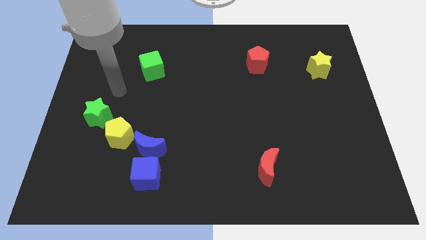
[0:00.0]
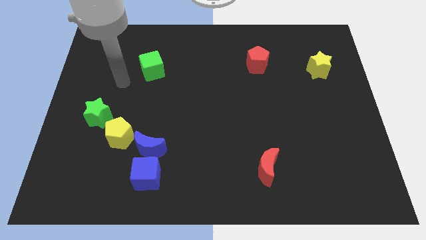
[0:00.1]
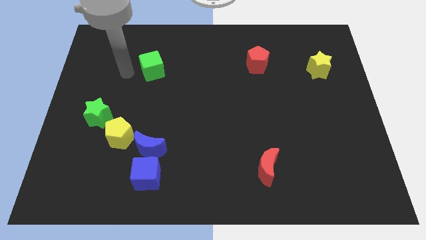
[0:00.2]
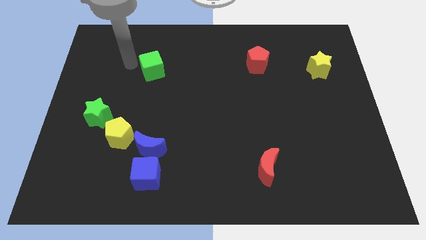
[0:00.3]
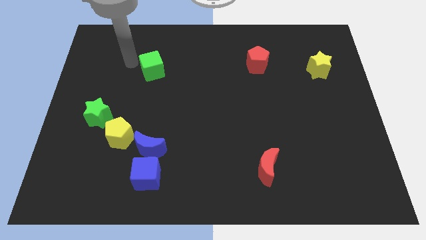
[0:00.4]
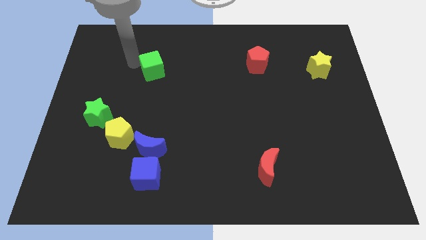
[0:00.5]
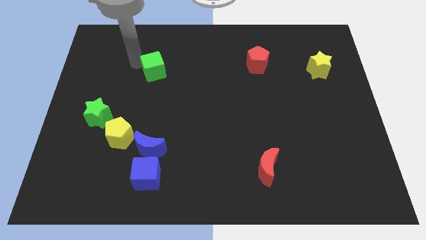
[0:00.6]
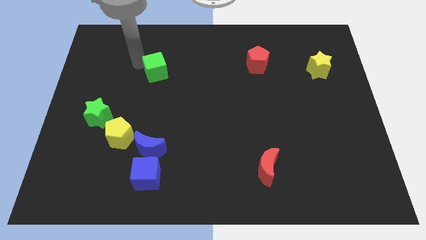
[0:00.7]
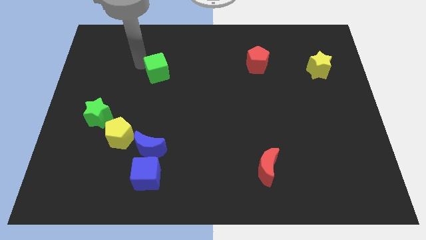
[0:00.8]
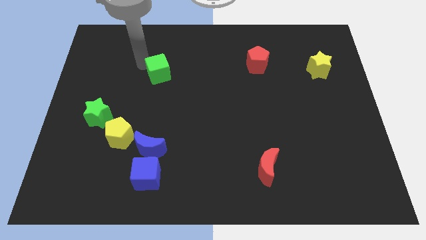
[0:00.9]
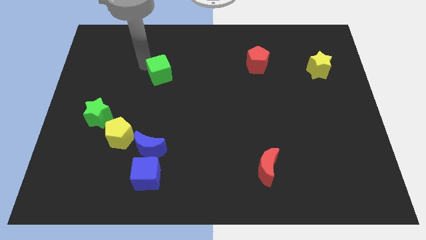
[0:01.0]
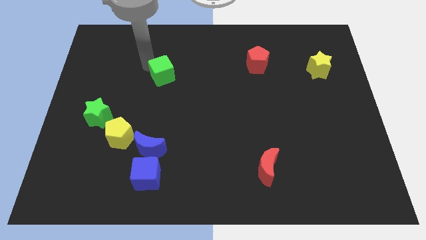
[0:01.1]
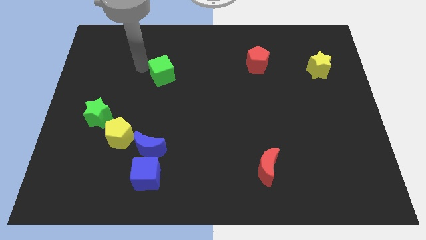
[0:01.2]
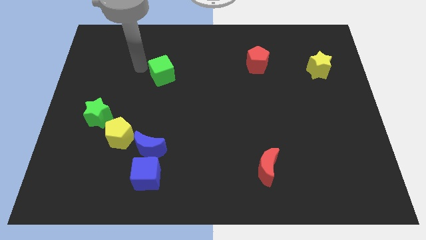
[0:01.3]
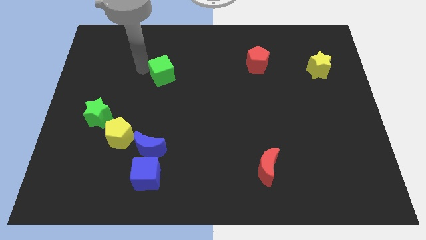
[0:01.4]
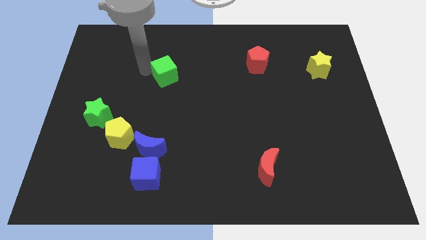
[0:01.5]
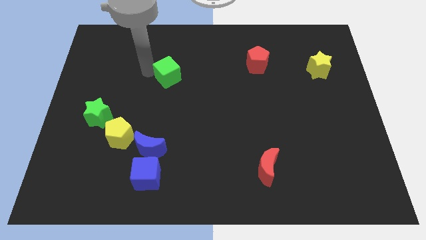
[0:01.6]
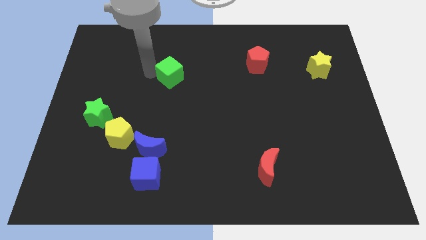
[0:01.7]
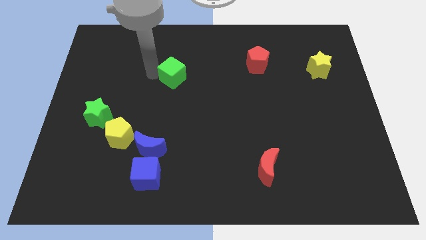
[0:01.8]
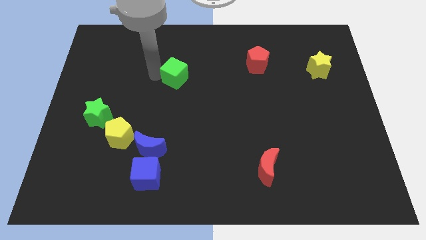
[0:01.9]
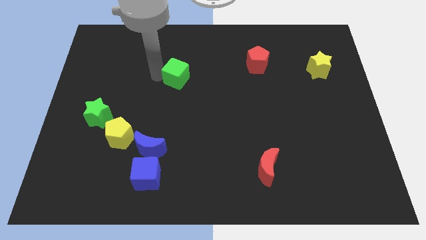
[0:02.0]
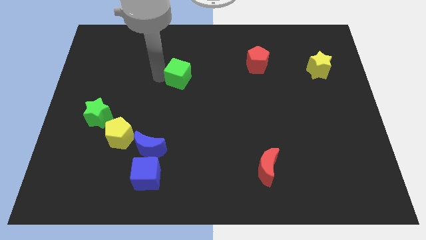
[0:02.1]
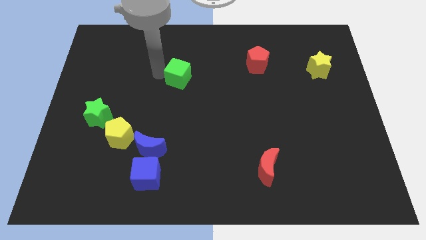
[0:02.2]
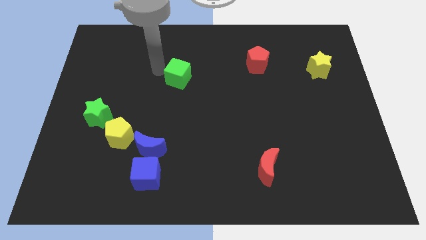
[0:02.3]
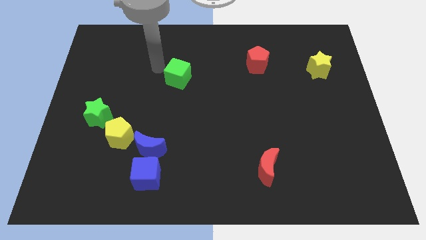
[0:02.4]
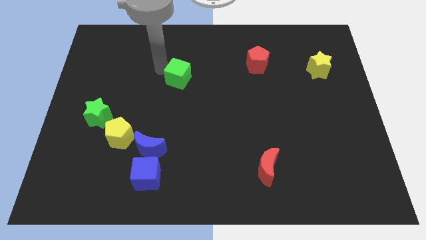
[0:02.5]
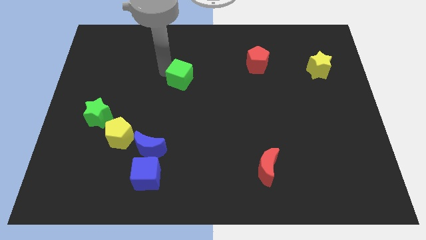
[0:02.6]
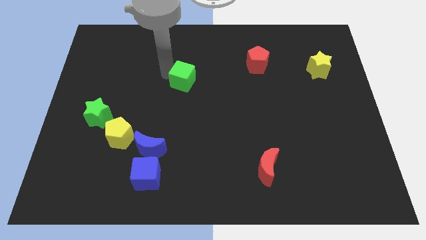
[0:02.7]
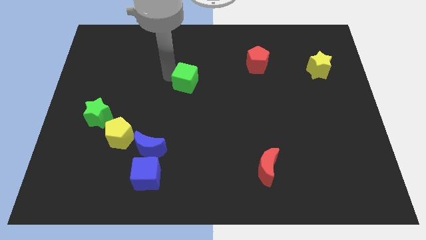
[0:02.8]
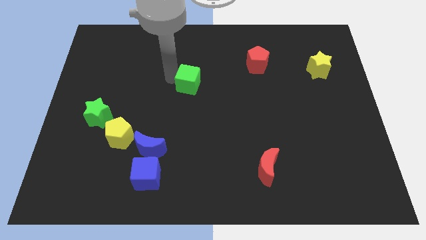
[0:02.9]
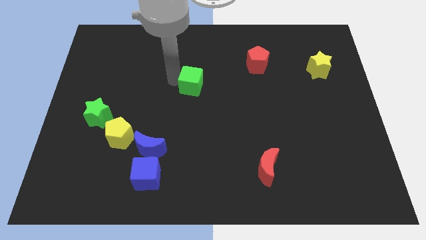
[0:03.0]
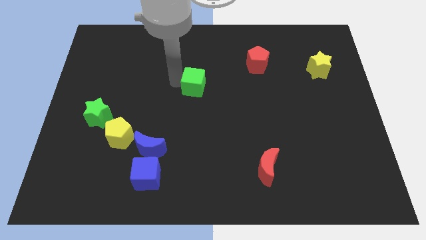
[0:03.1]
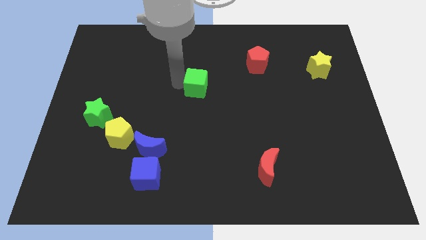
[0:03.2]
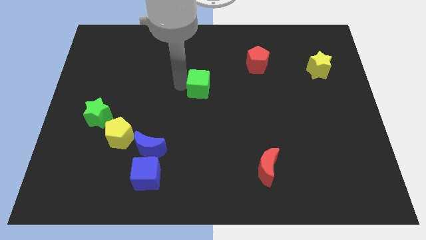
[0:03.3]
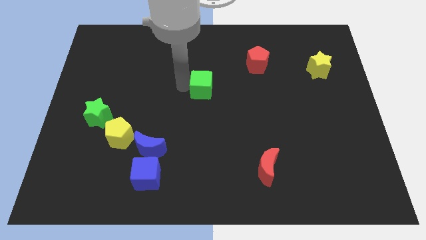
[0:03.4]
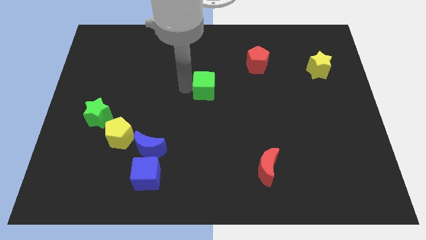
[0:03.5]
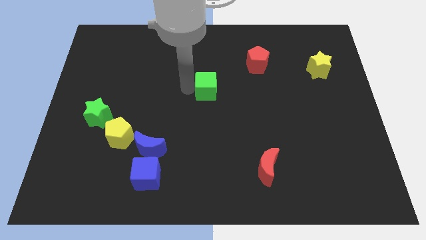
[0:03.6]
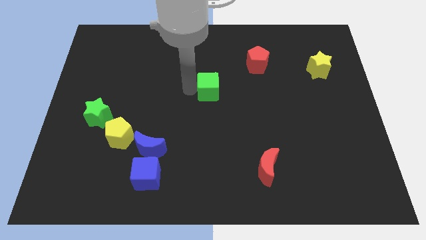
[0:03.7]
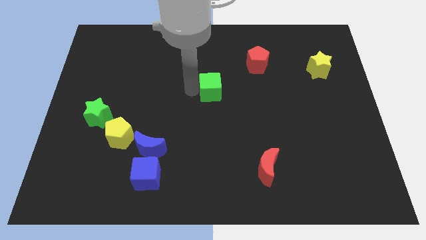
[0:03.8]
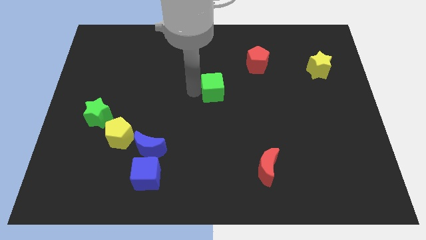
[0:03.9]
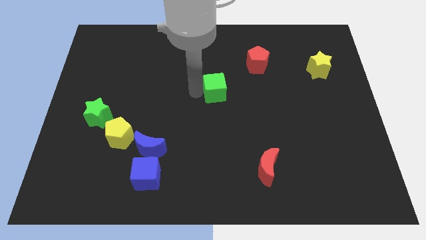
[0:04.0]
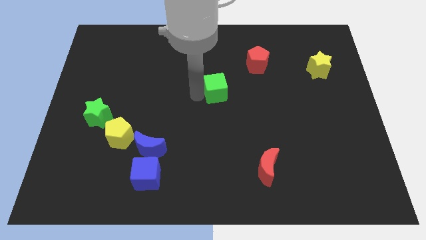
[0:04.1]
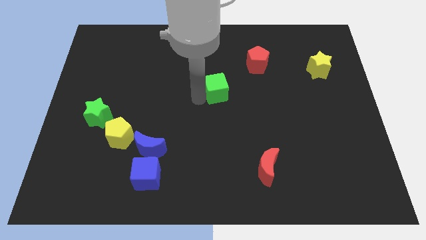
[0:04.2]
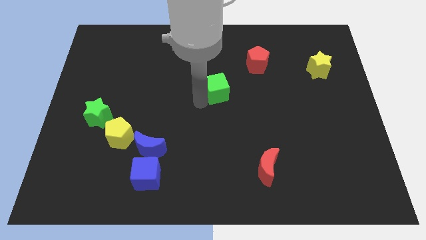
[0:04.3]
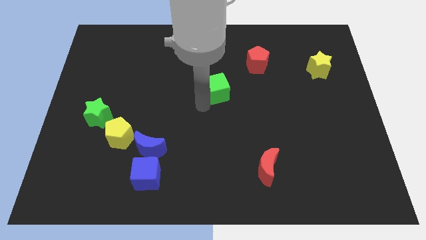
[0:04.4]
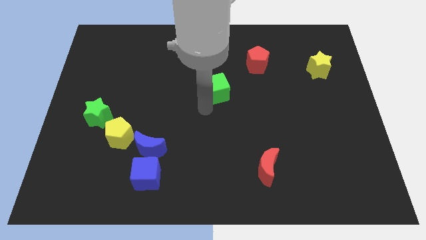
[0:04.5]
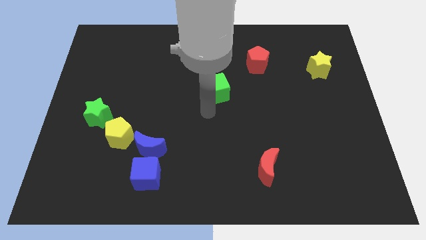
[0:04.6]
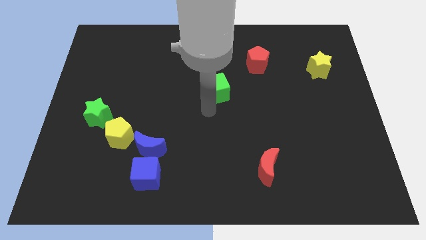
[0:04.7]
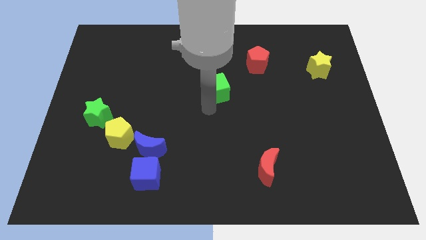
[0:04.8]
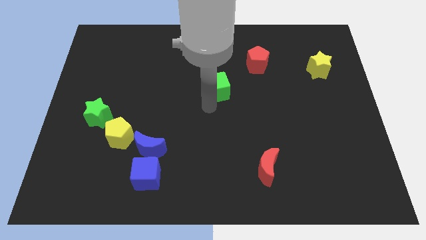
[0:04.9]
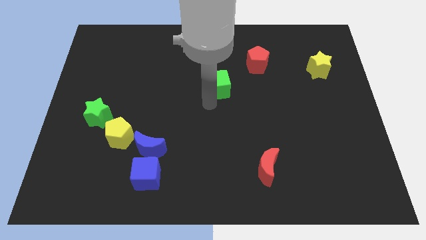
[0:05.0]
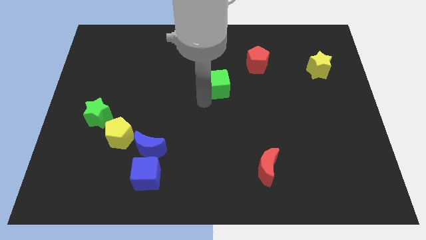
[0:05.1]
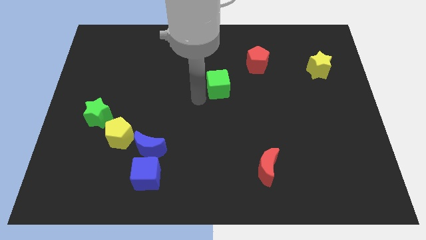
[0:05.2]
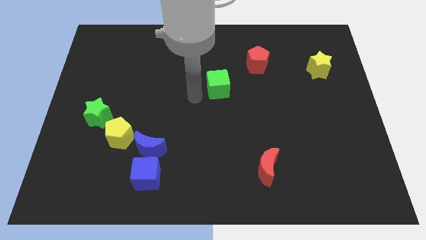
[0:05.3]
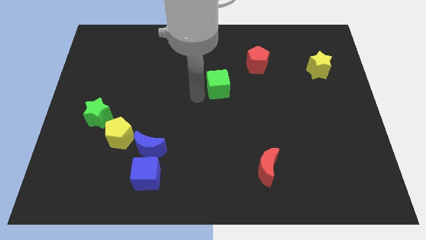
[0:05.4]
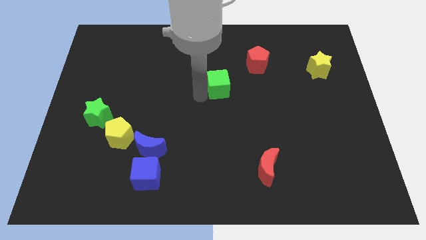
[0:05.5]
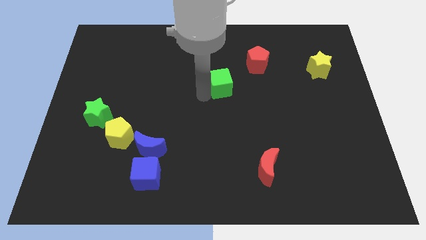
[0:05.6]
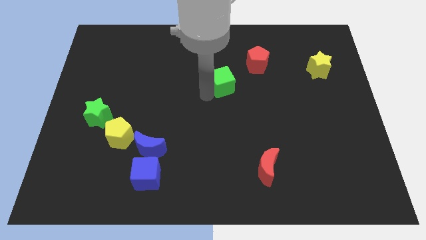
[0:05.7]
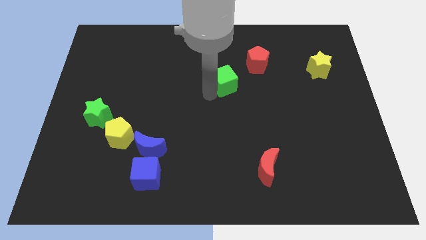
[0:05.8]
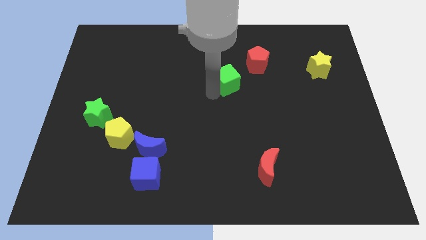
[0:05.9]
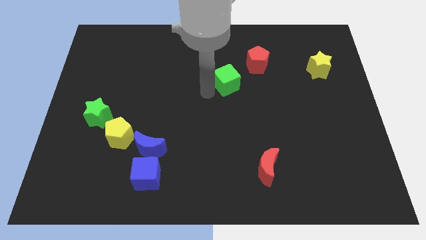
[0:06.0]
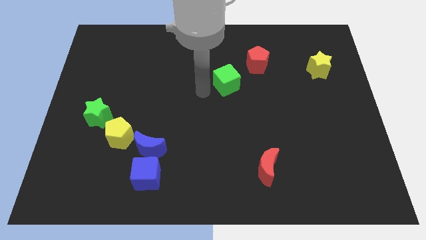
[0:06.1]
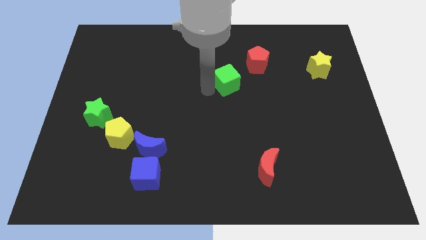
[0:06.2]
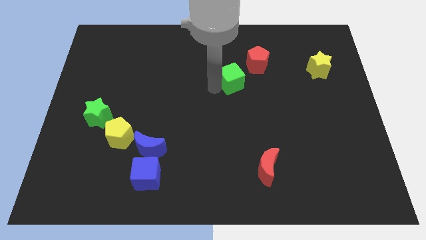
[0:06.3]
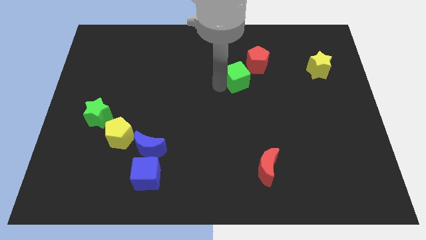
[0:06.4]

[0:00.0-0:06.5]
slide the green cube right

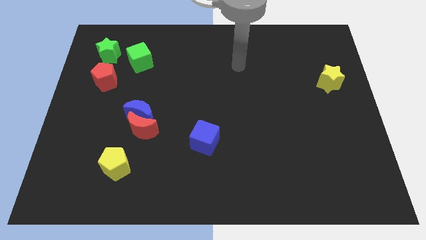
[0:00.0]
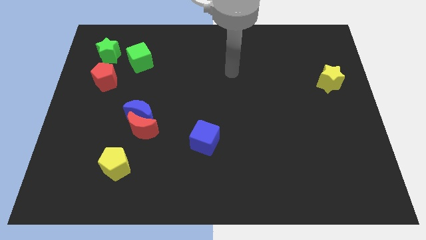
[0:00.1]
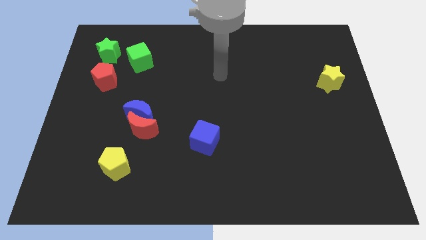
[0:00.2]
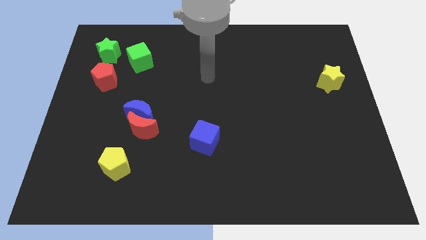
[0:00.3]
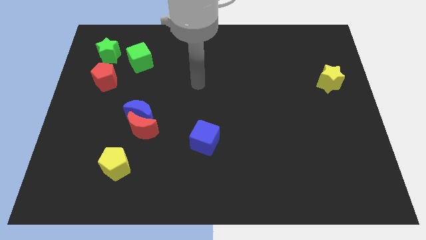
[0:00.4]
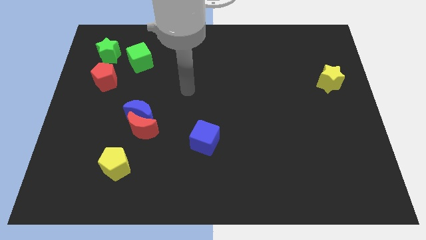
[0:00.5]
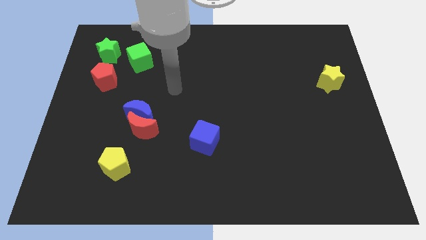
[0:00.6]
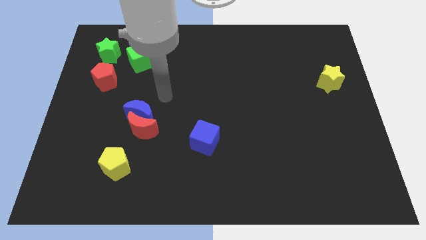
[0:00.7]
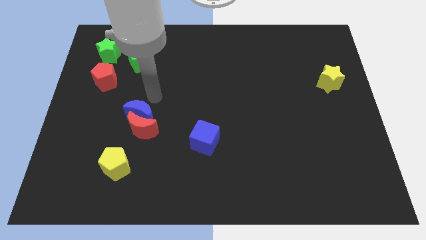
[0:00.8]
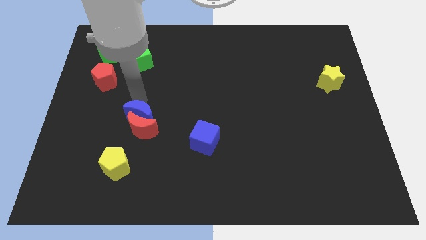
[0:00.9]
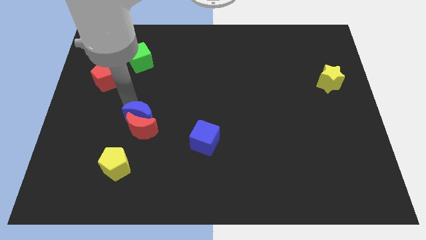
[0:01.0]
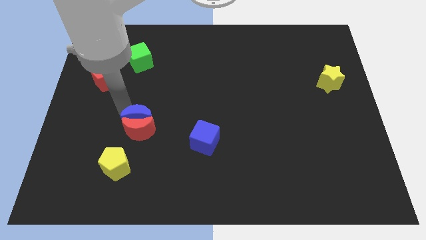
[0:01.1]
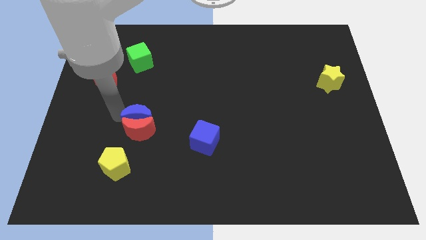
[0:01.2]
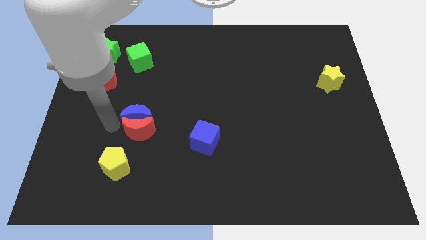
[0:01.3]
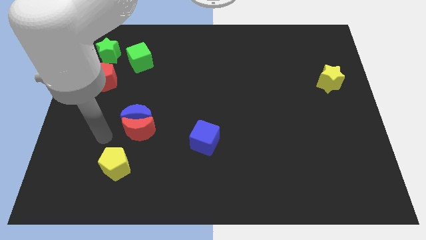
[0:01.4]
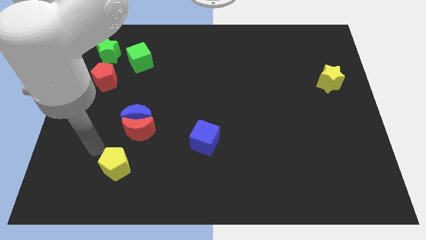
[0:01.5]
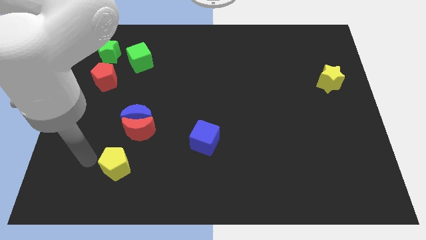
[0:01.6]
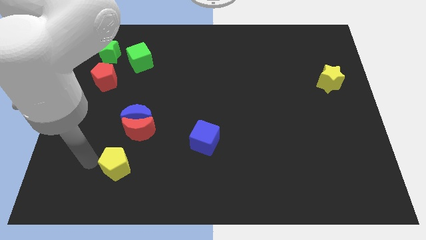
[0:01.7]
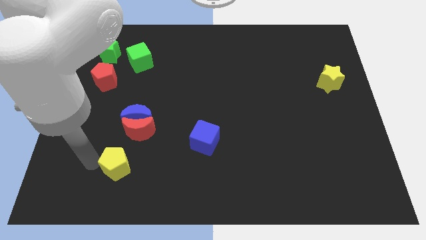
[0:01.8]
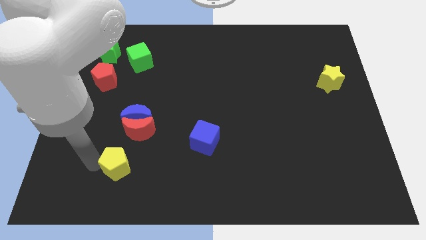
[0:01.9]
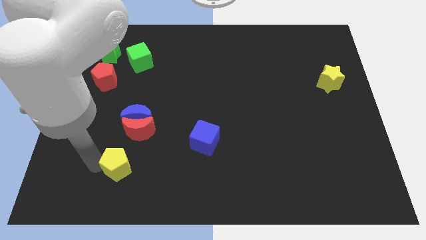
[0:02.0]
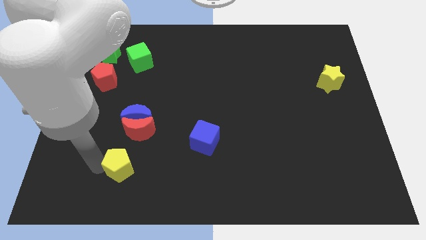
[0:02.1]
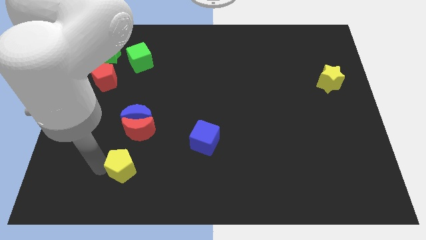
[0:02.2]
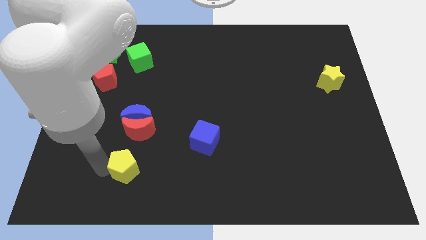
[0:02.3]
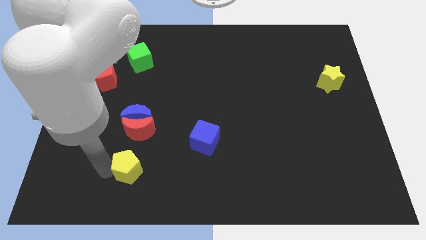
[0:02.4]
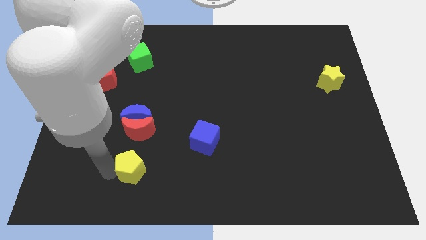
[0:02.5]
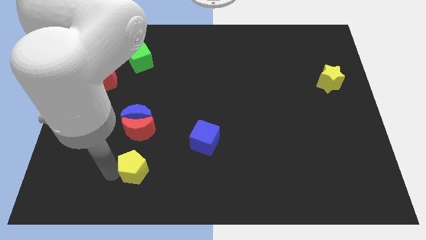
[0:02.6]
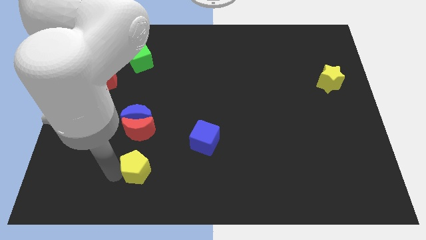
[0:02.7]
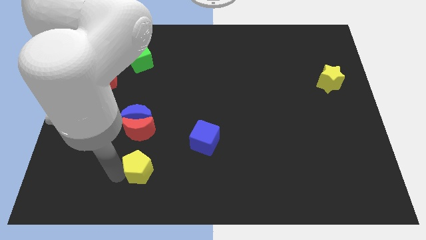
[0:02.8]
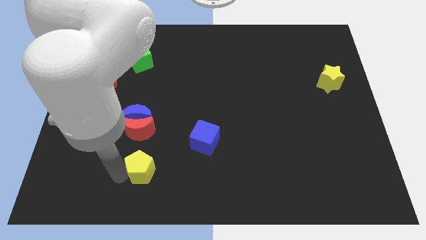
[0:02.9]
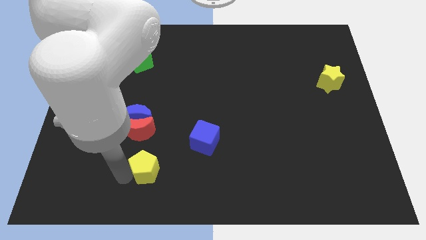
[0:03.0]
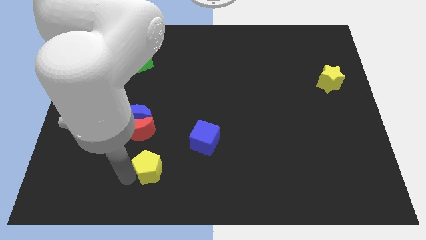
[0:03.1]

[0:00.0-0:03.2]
slightly slide the yellow pentagon right
